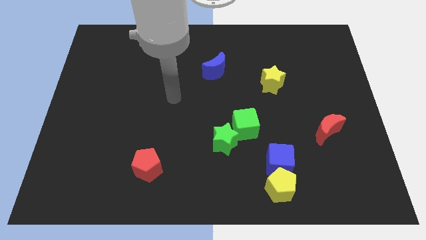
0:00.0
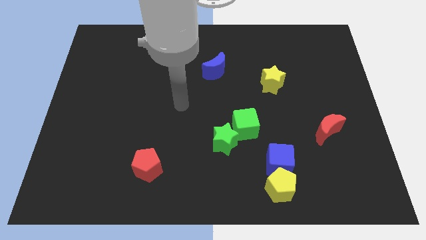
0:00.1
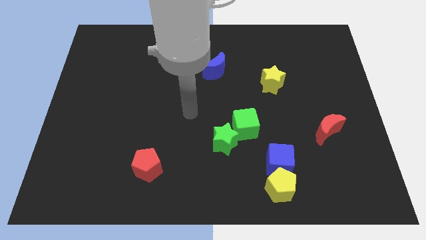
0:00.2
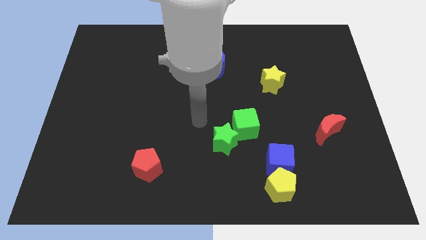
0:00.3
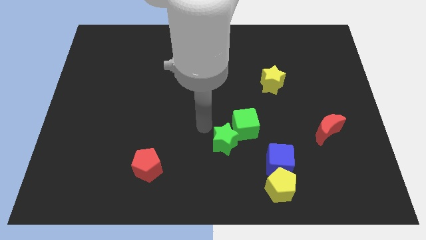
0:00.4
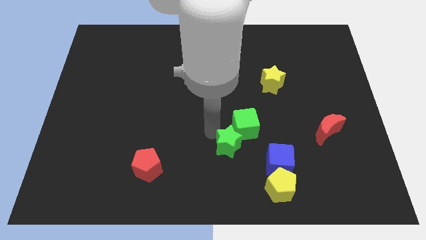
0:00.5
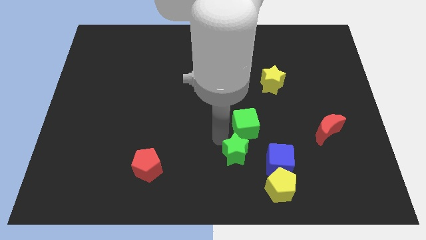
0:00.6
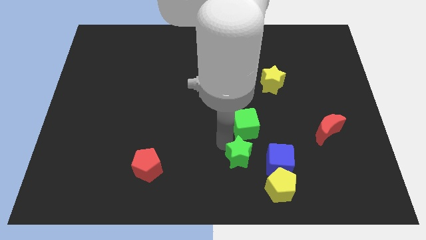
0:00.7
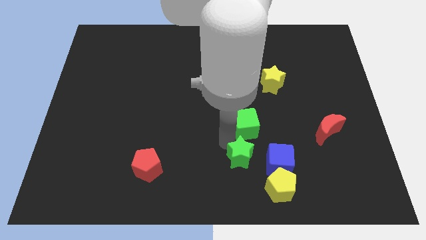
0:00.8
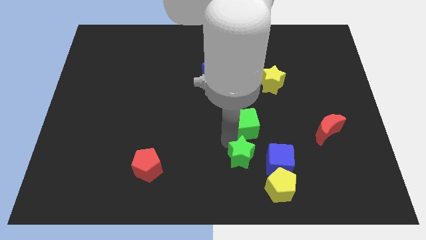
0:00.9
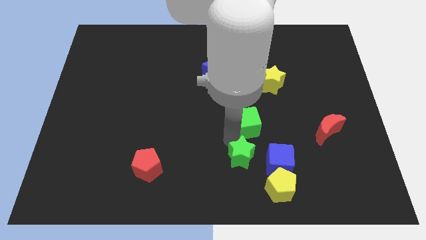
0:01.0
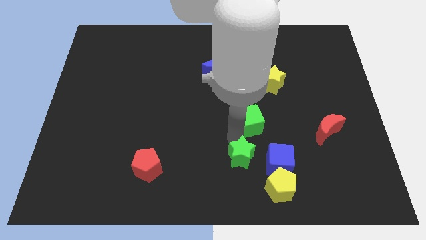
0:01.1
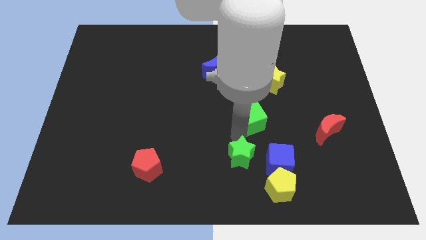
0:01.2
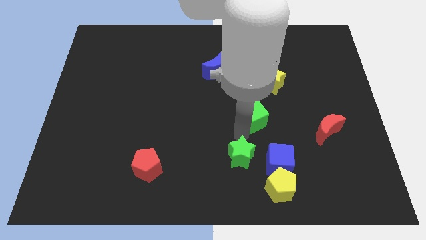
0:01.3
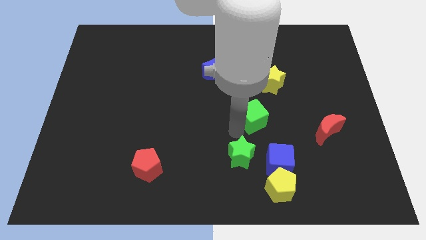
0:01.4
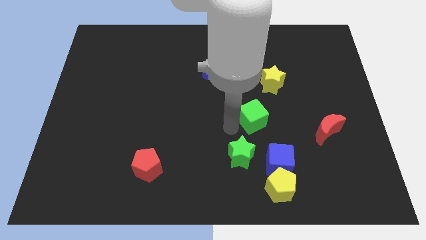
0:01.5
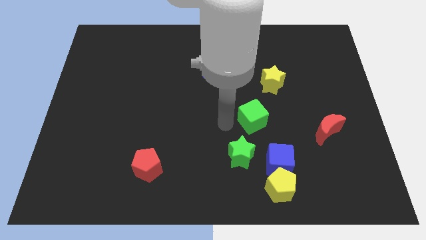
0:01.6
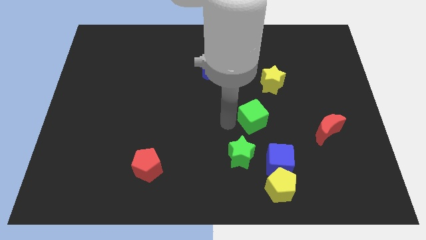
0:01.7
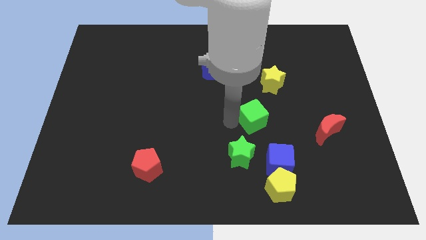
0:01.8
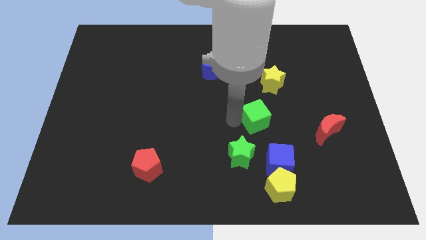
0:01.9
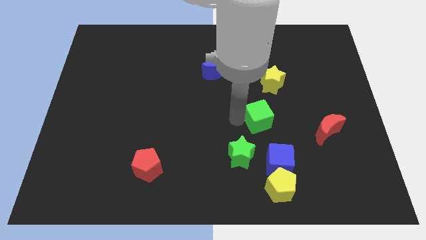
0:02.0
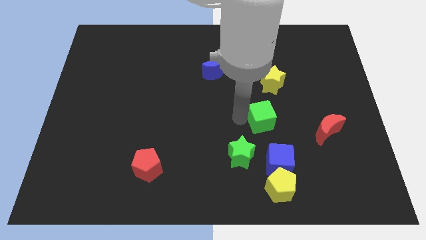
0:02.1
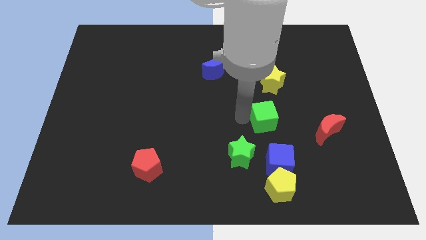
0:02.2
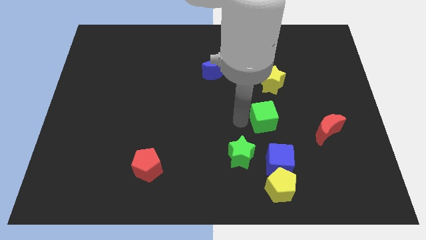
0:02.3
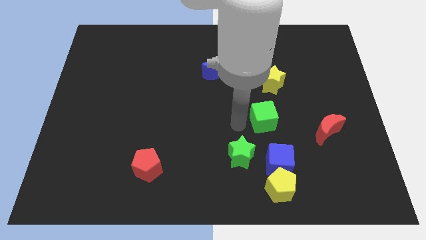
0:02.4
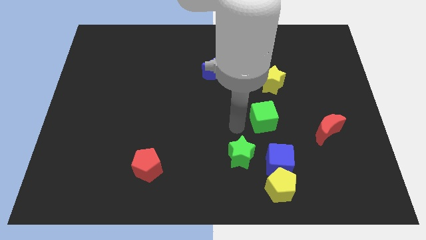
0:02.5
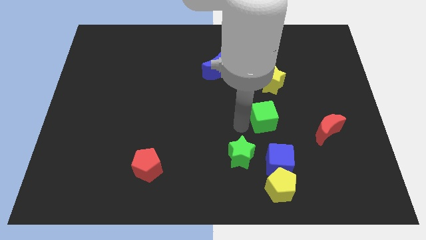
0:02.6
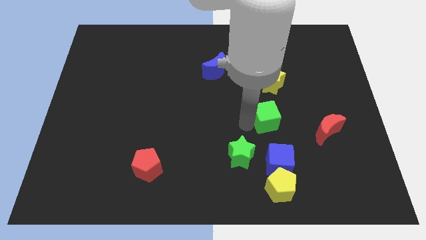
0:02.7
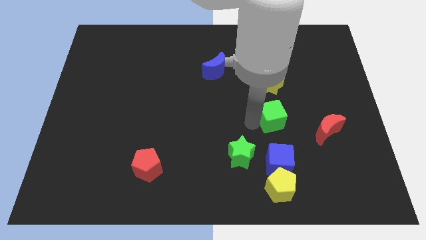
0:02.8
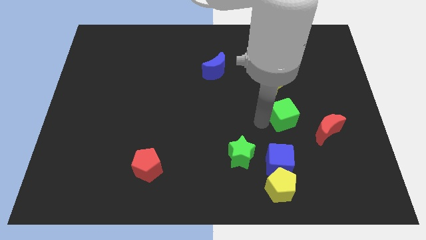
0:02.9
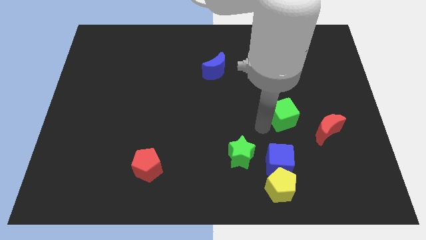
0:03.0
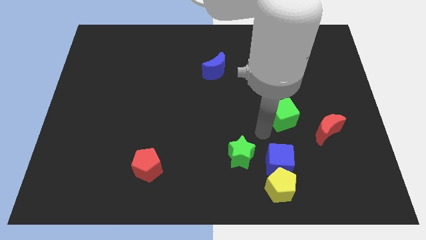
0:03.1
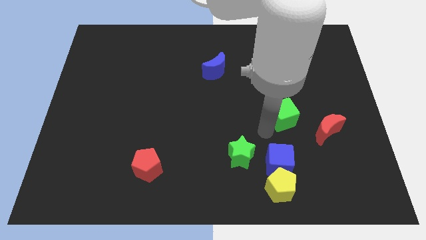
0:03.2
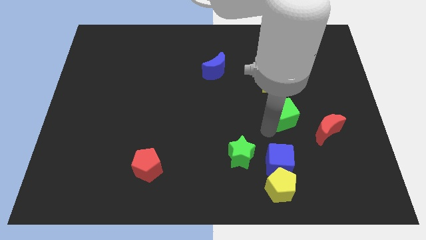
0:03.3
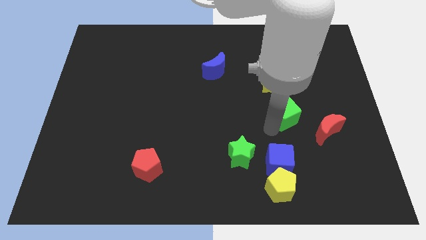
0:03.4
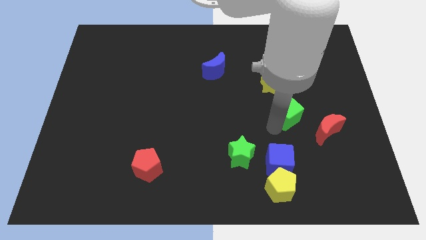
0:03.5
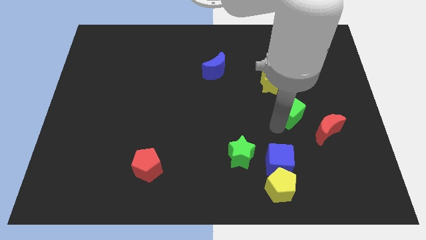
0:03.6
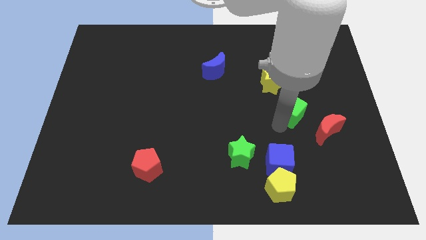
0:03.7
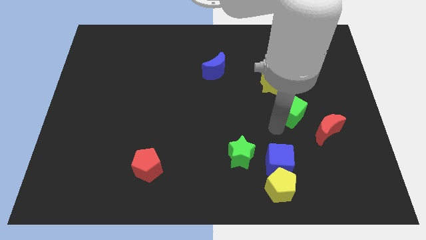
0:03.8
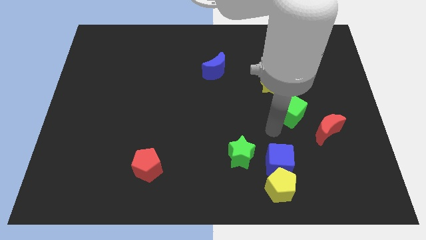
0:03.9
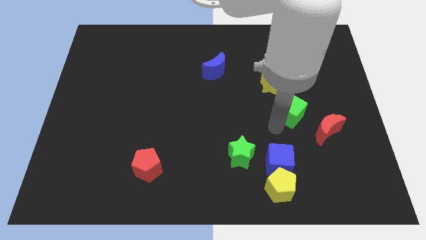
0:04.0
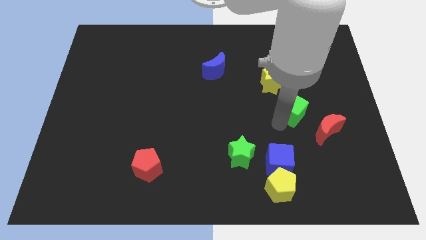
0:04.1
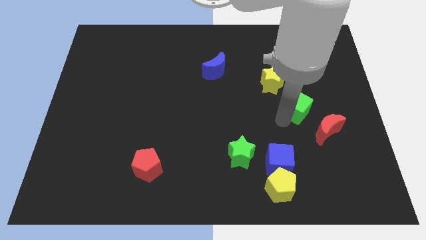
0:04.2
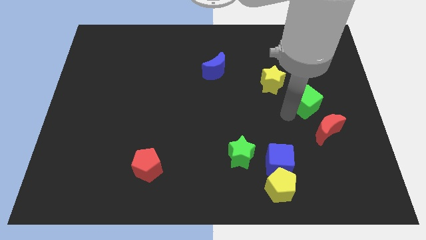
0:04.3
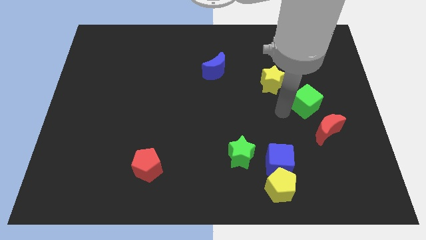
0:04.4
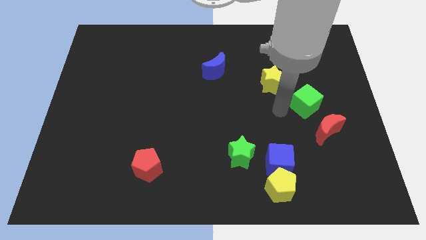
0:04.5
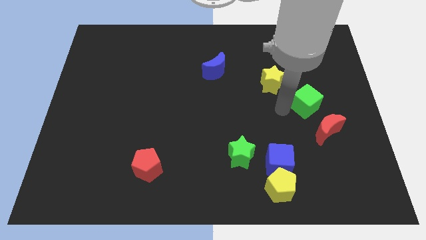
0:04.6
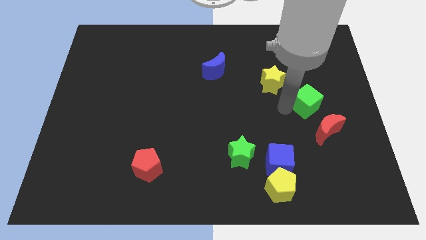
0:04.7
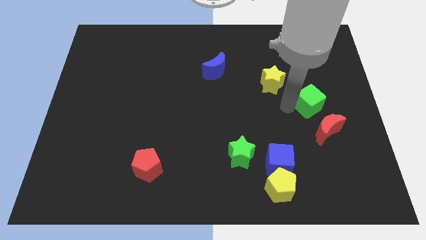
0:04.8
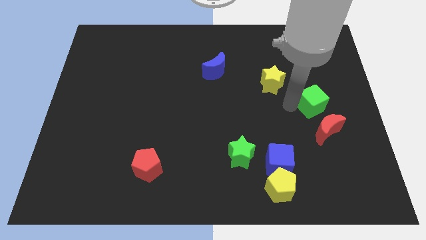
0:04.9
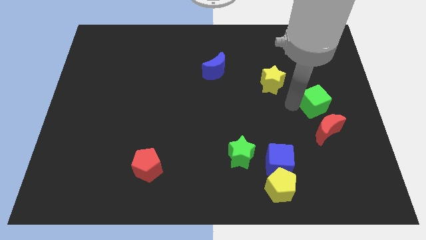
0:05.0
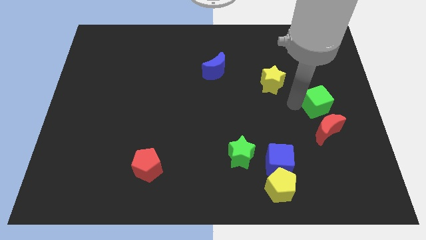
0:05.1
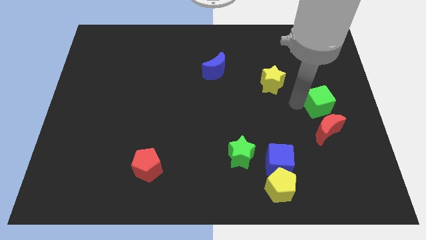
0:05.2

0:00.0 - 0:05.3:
move the green cube to the center right
